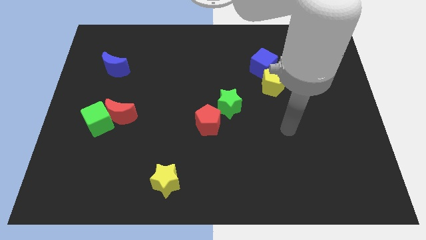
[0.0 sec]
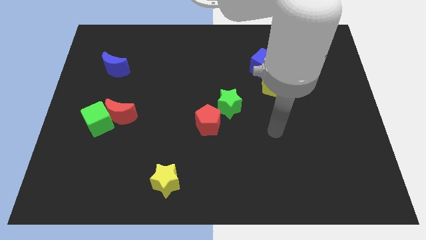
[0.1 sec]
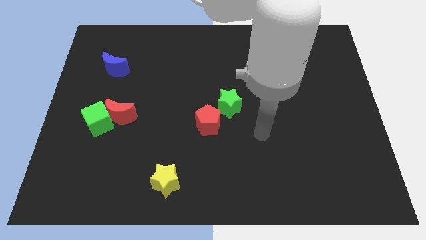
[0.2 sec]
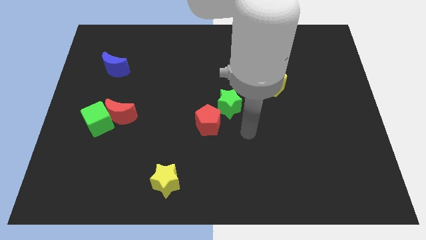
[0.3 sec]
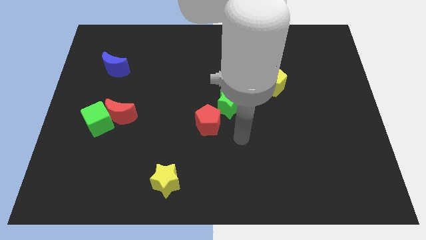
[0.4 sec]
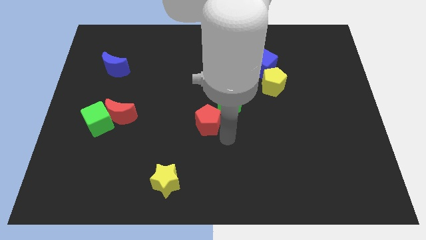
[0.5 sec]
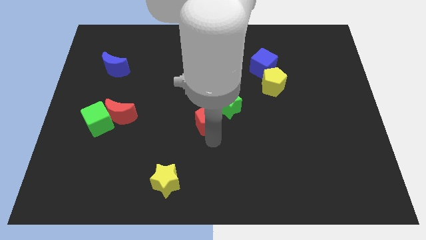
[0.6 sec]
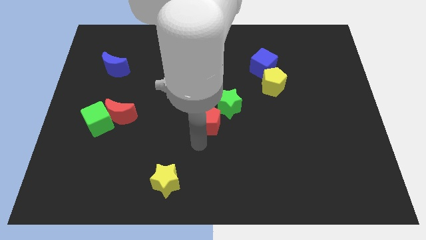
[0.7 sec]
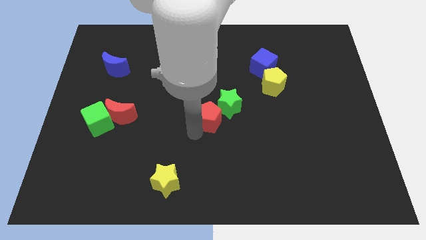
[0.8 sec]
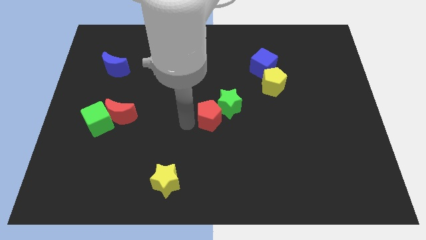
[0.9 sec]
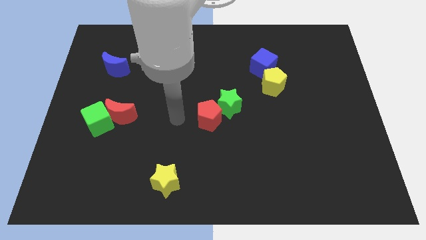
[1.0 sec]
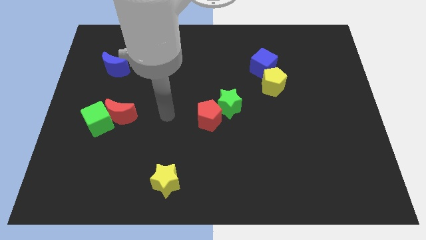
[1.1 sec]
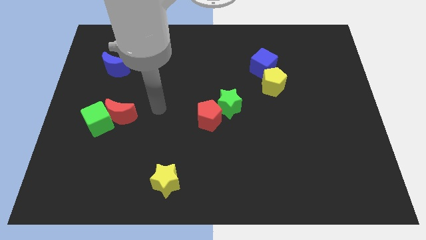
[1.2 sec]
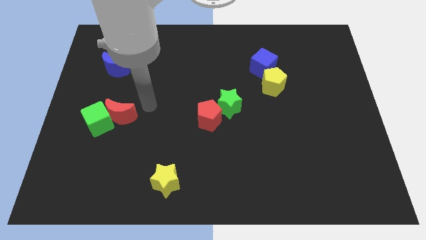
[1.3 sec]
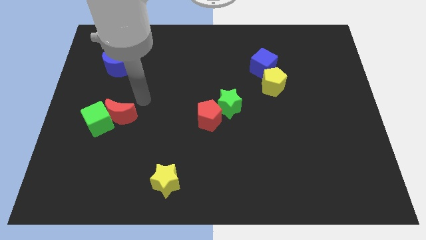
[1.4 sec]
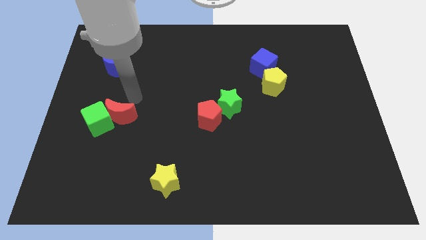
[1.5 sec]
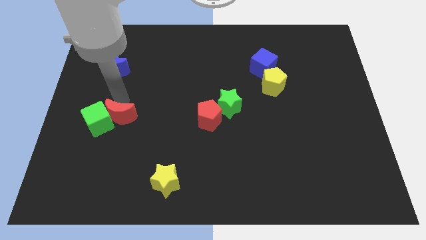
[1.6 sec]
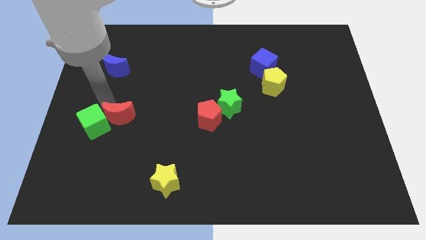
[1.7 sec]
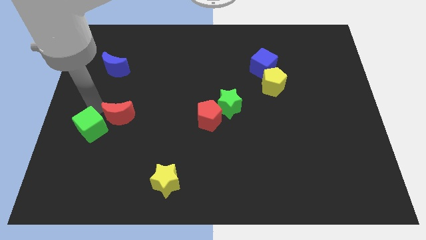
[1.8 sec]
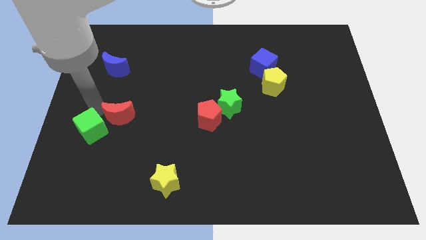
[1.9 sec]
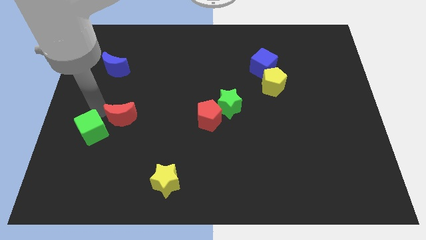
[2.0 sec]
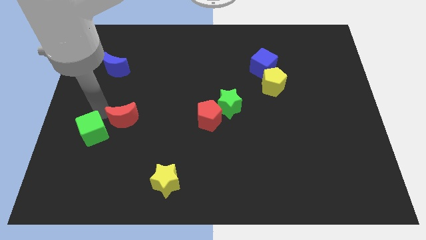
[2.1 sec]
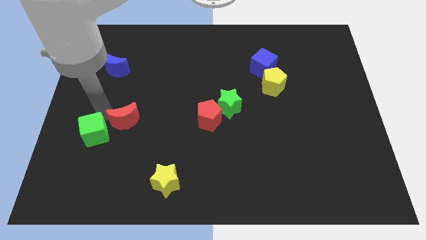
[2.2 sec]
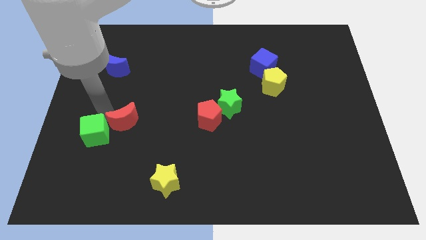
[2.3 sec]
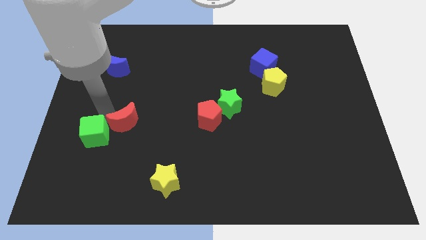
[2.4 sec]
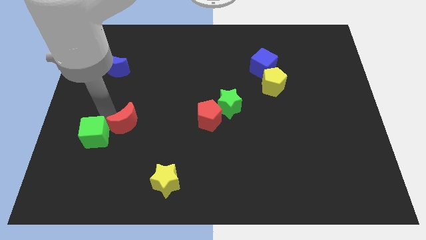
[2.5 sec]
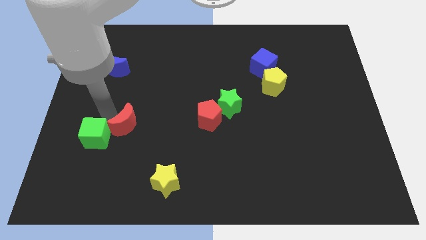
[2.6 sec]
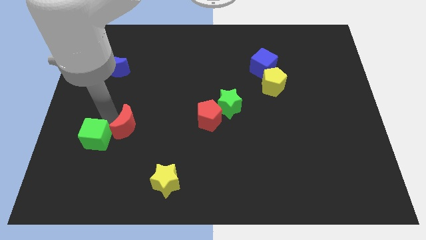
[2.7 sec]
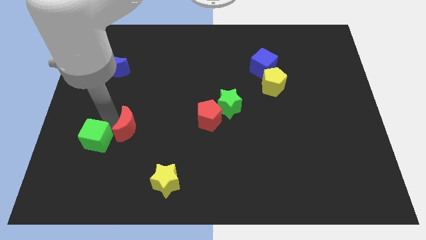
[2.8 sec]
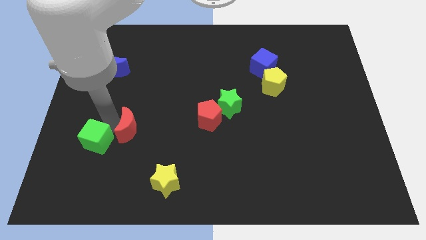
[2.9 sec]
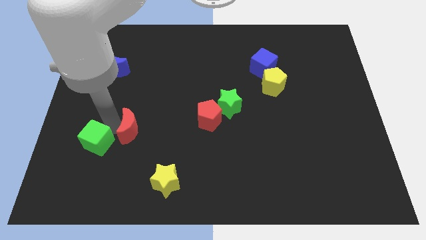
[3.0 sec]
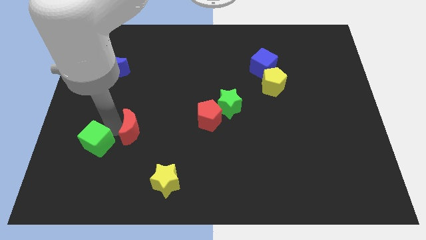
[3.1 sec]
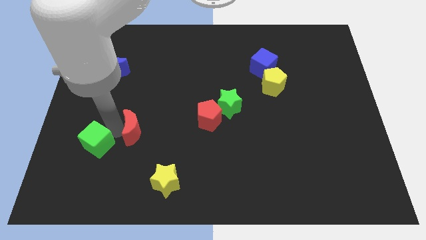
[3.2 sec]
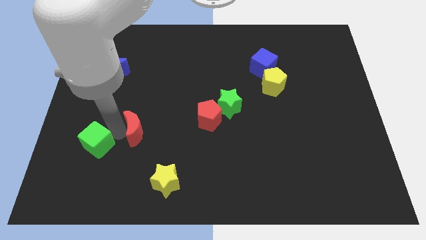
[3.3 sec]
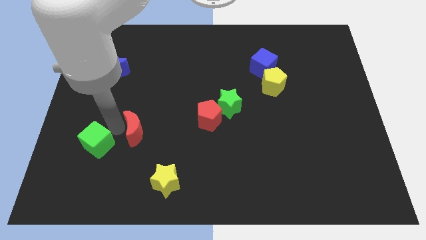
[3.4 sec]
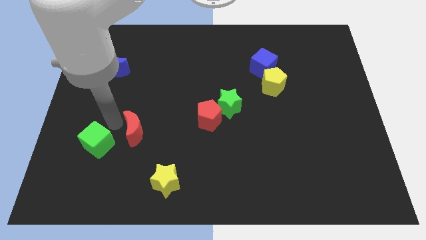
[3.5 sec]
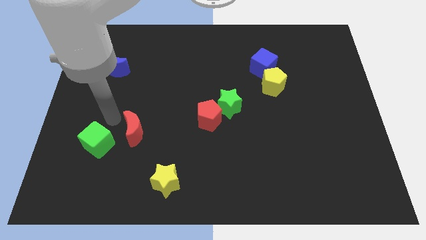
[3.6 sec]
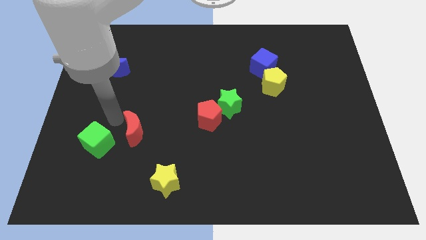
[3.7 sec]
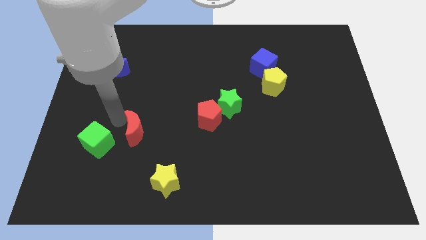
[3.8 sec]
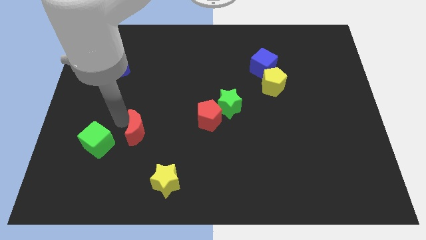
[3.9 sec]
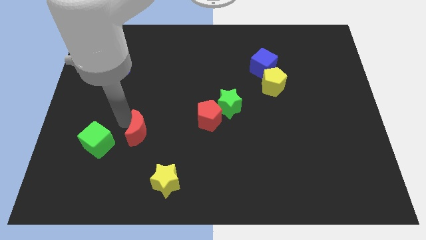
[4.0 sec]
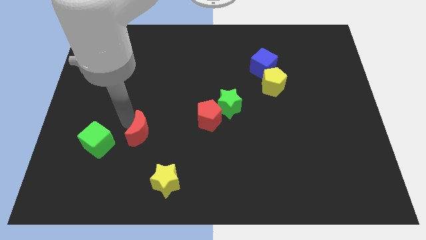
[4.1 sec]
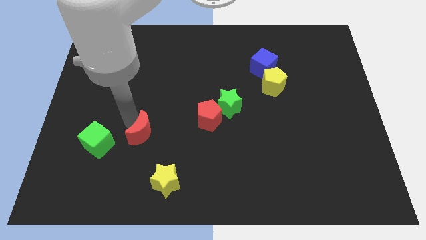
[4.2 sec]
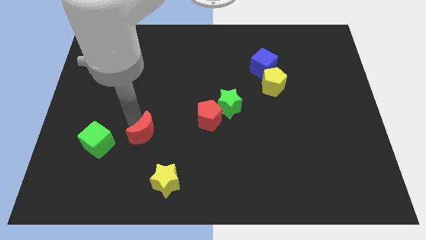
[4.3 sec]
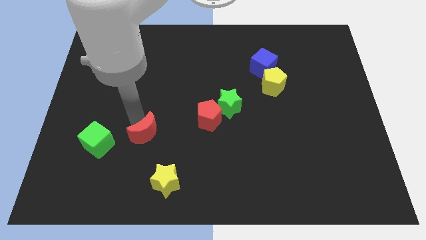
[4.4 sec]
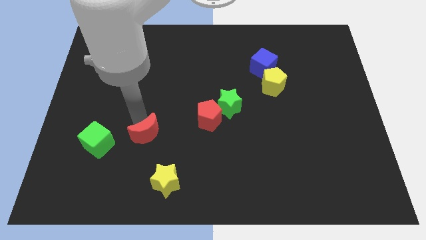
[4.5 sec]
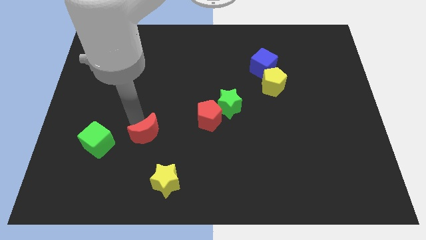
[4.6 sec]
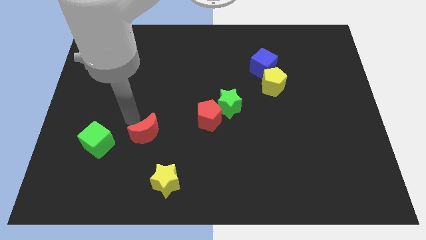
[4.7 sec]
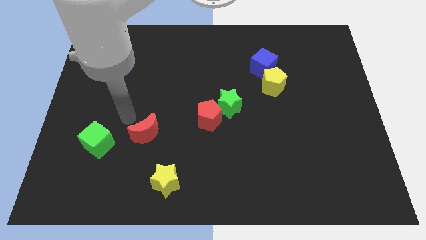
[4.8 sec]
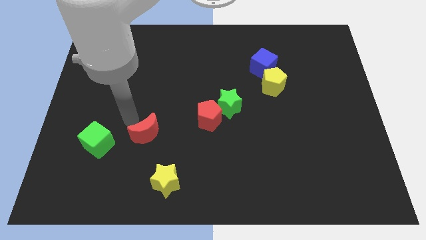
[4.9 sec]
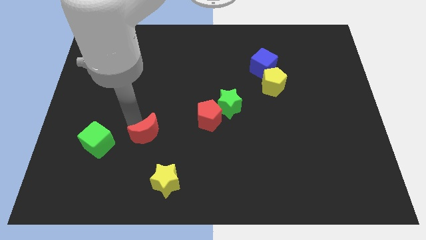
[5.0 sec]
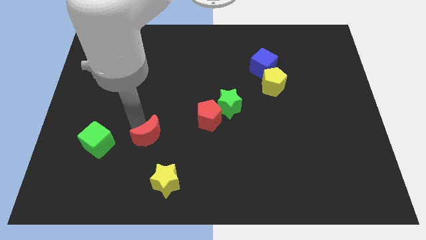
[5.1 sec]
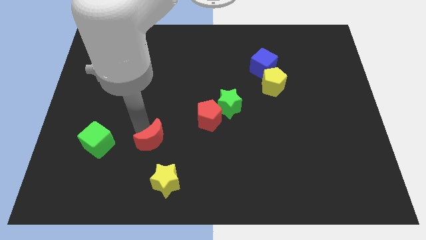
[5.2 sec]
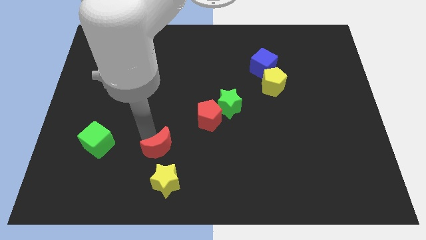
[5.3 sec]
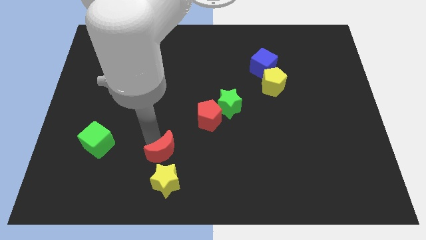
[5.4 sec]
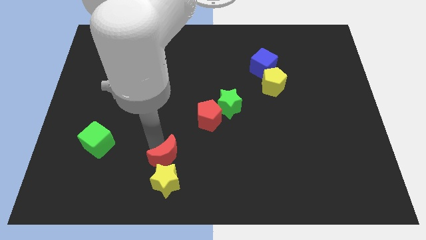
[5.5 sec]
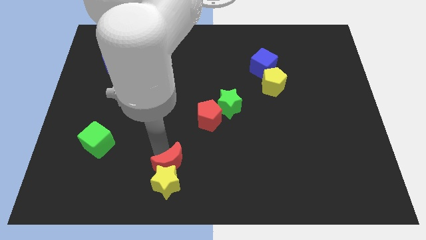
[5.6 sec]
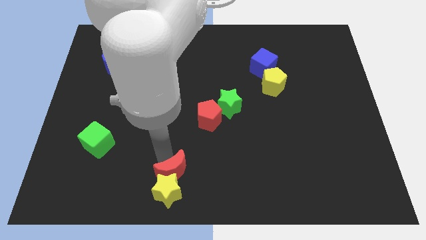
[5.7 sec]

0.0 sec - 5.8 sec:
push the red moon to the bottom

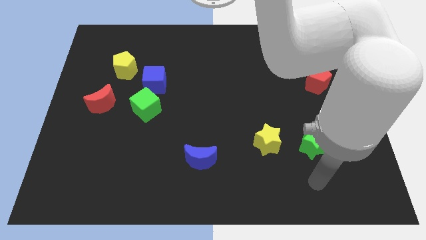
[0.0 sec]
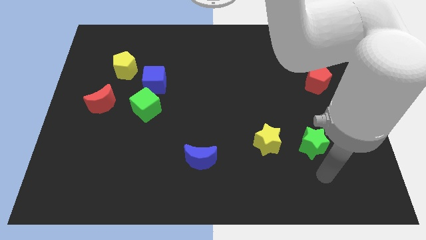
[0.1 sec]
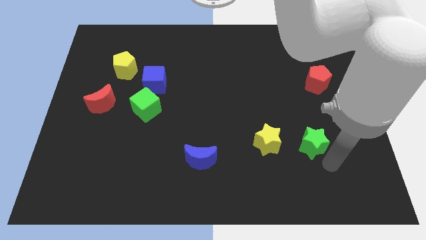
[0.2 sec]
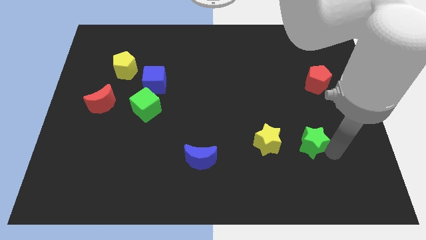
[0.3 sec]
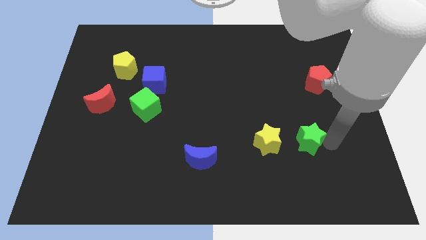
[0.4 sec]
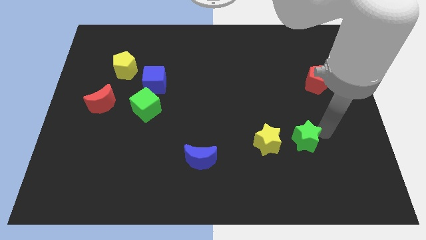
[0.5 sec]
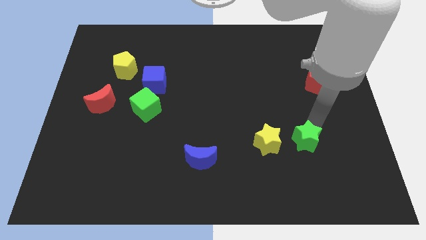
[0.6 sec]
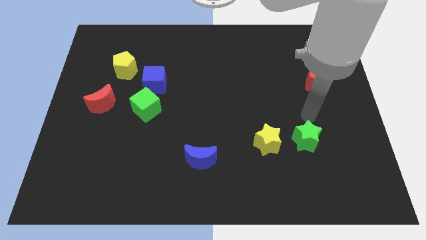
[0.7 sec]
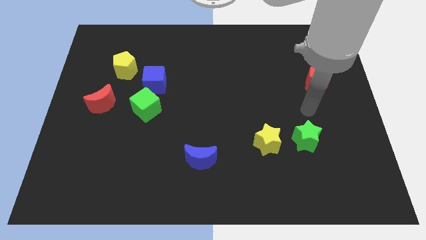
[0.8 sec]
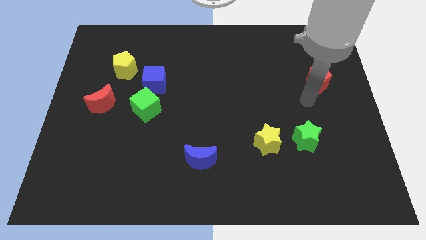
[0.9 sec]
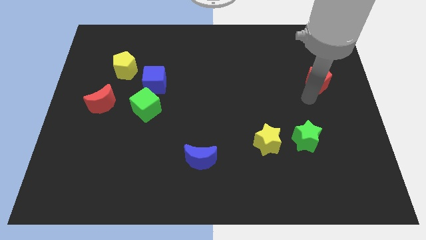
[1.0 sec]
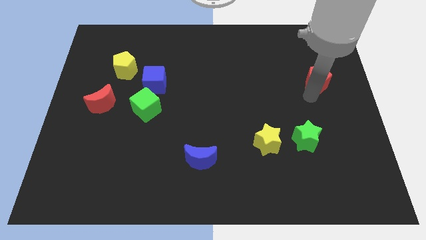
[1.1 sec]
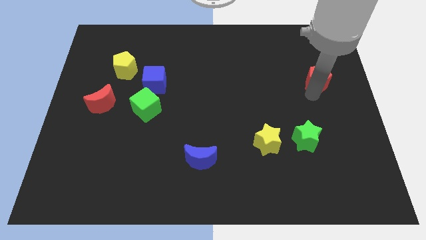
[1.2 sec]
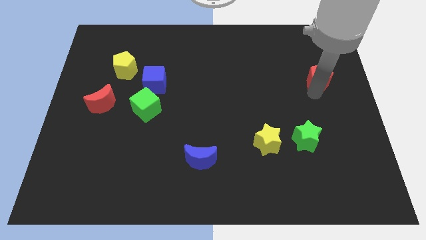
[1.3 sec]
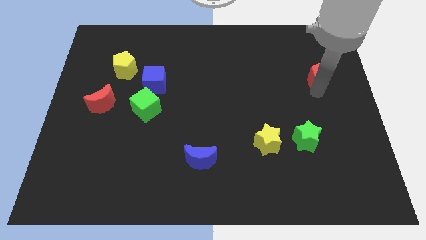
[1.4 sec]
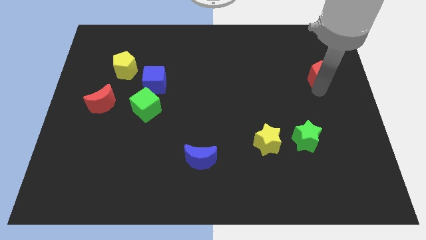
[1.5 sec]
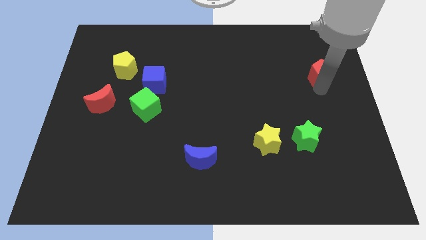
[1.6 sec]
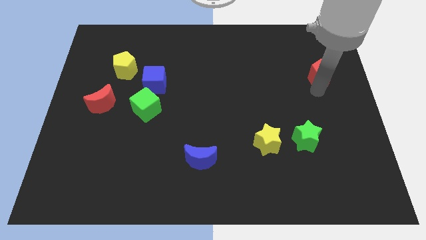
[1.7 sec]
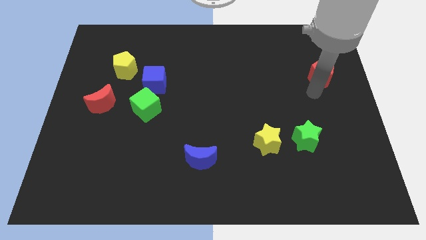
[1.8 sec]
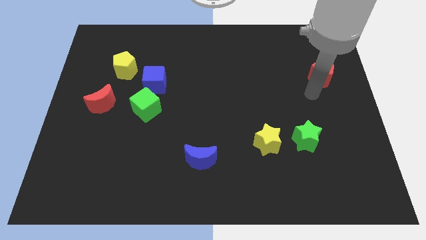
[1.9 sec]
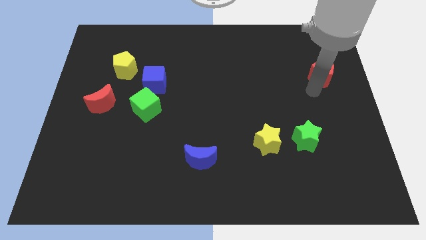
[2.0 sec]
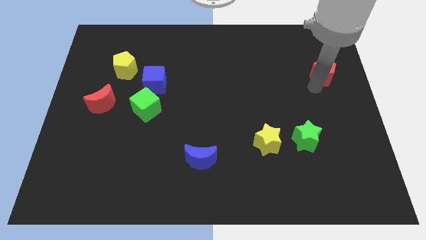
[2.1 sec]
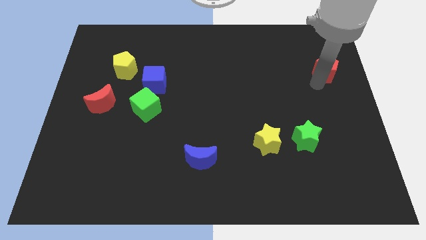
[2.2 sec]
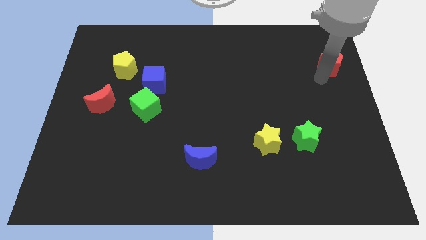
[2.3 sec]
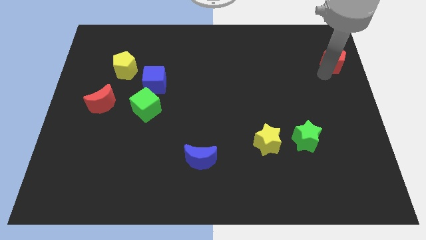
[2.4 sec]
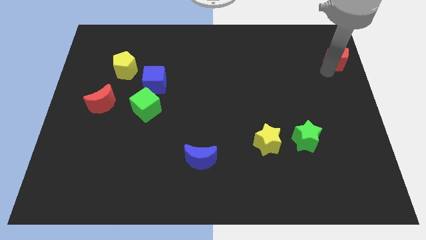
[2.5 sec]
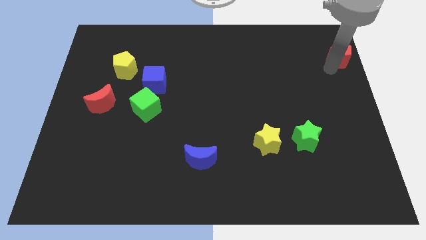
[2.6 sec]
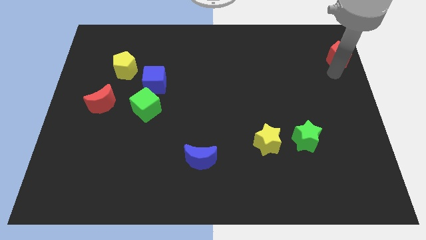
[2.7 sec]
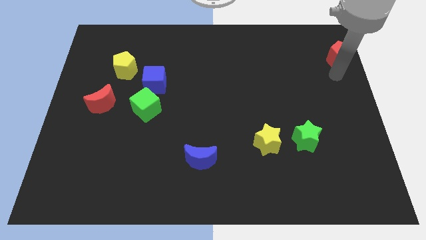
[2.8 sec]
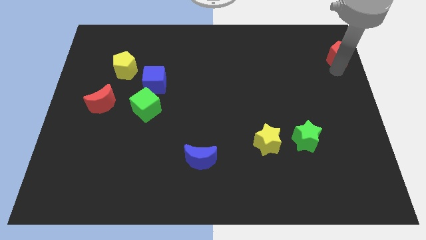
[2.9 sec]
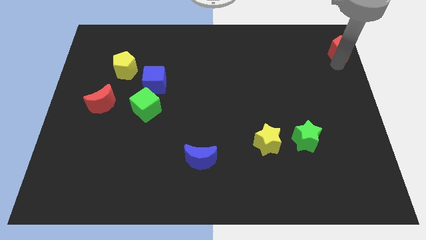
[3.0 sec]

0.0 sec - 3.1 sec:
slide the red pentagon to the top right of the board
